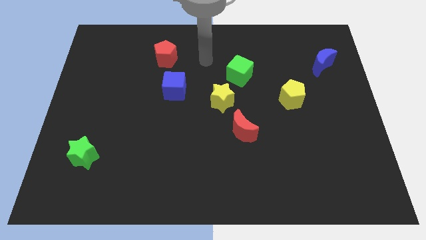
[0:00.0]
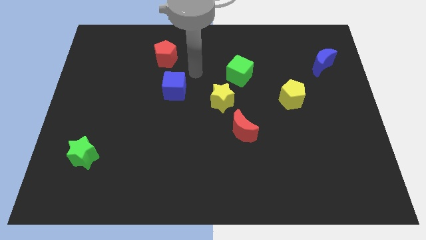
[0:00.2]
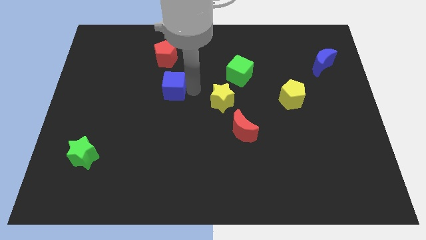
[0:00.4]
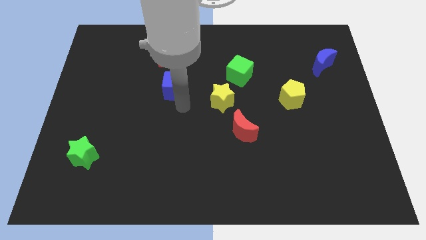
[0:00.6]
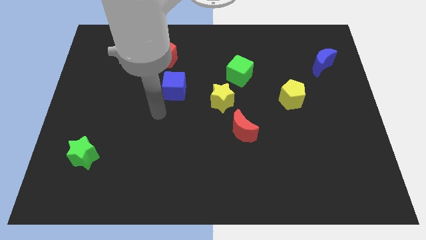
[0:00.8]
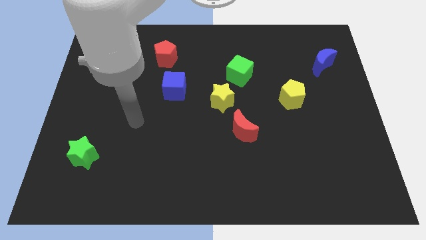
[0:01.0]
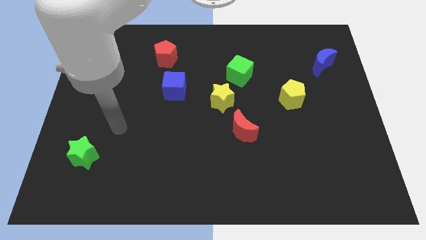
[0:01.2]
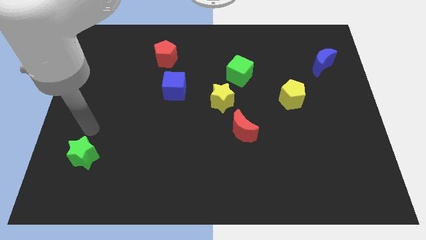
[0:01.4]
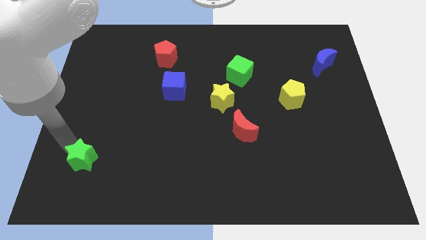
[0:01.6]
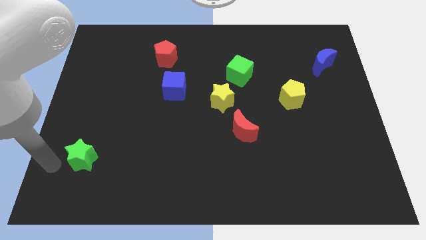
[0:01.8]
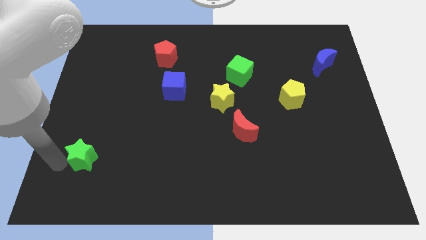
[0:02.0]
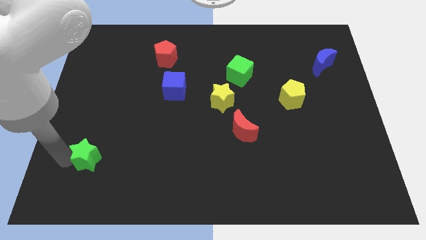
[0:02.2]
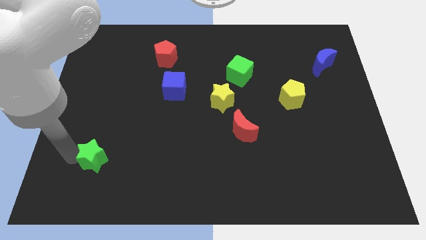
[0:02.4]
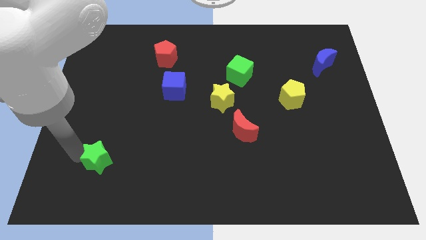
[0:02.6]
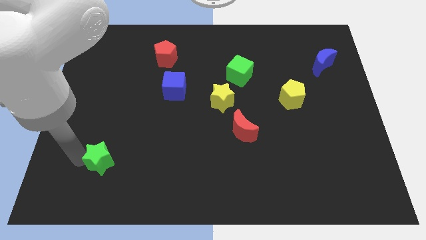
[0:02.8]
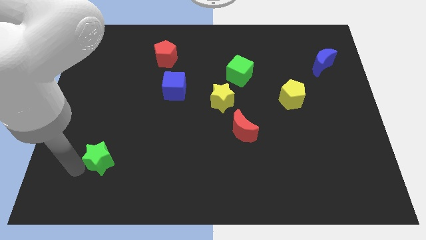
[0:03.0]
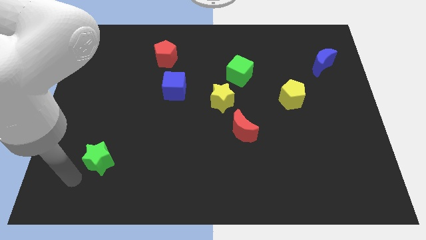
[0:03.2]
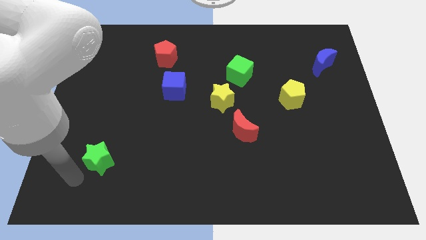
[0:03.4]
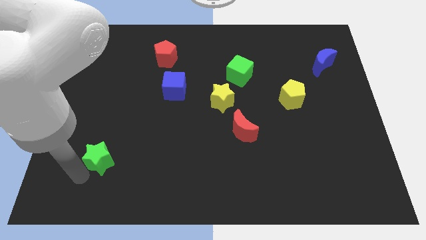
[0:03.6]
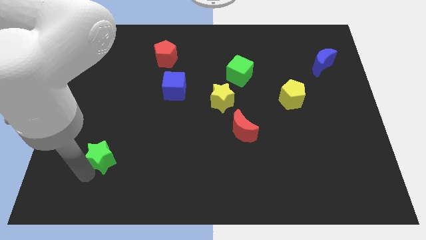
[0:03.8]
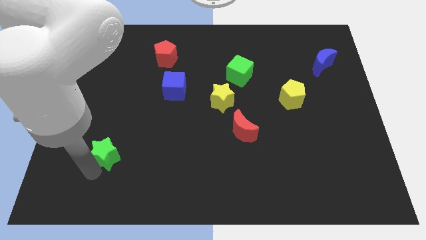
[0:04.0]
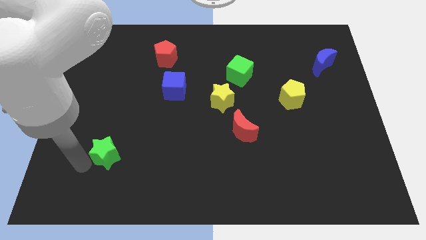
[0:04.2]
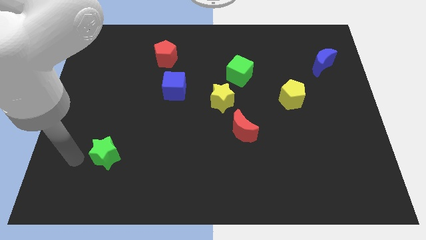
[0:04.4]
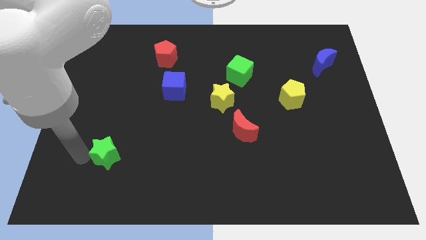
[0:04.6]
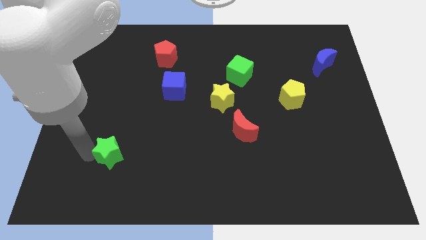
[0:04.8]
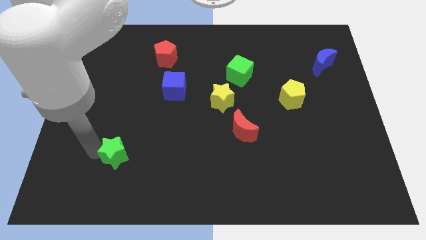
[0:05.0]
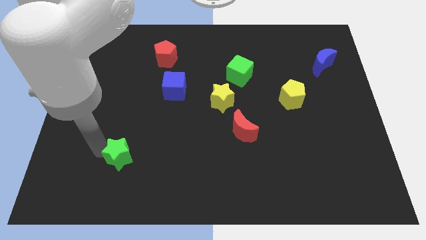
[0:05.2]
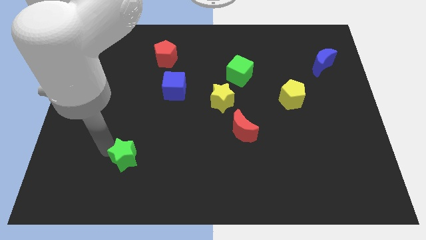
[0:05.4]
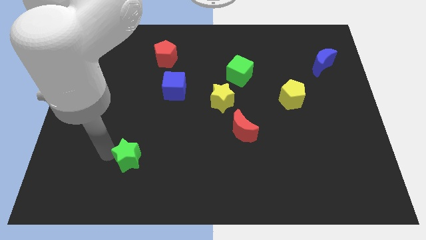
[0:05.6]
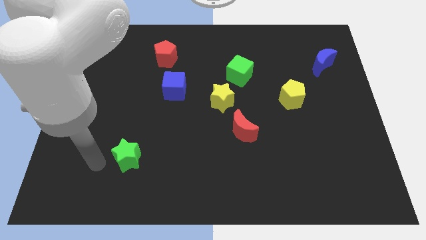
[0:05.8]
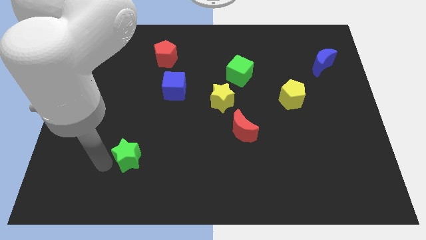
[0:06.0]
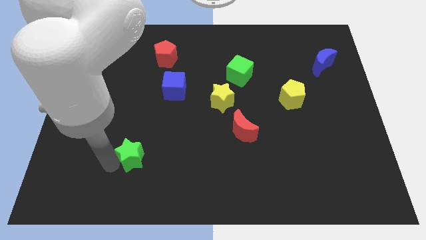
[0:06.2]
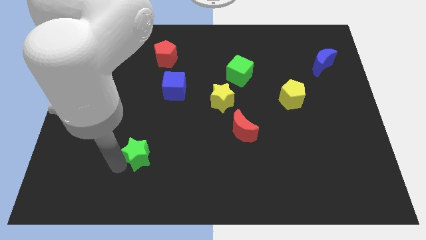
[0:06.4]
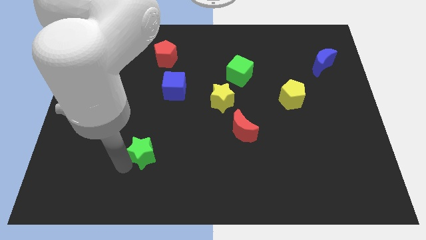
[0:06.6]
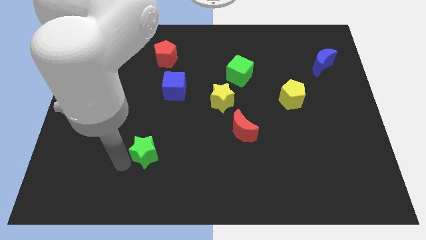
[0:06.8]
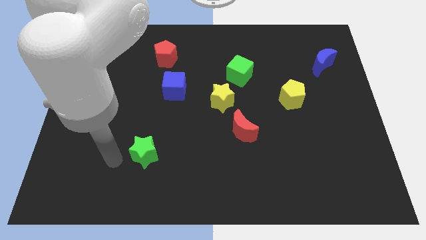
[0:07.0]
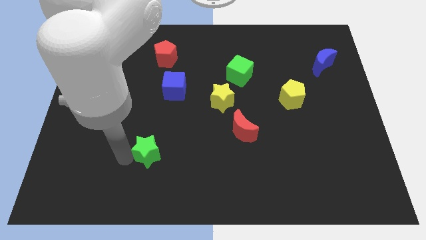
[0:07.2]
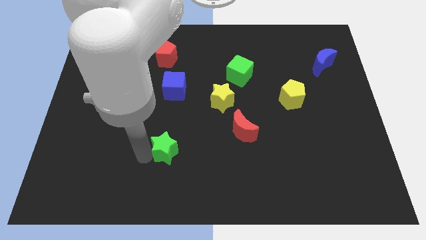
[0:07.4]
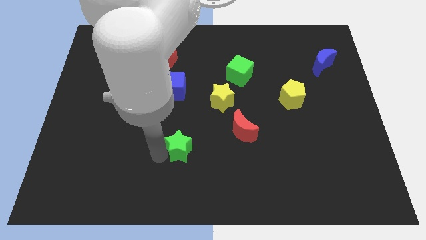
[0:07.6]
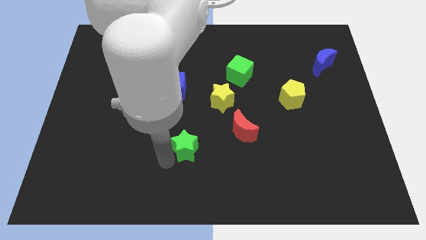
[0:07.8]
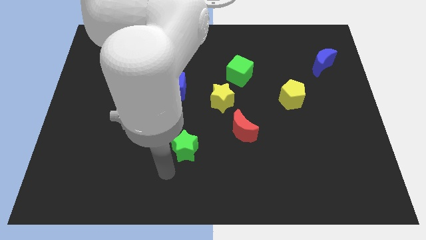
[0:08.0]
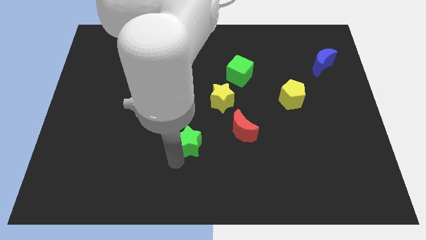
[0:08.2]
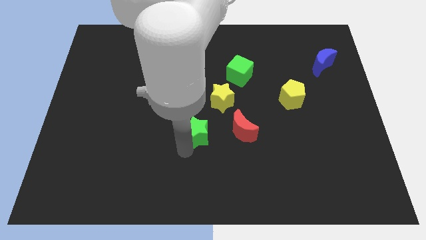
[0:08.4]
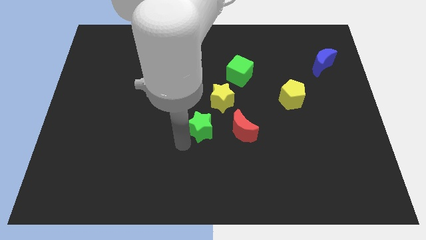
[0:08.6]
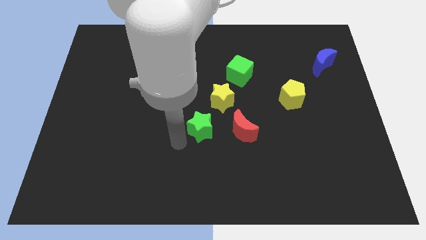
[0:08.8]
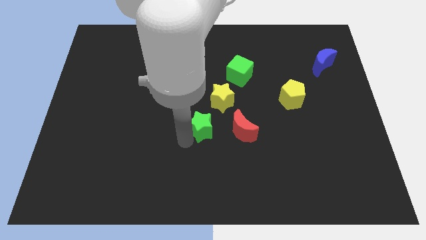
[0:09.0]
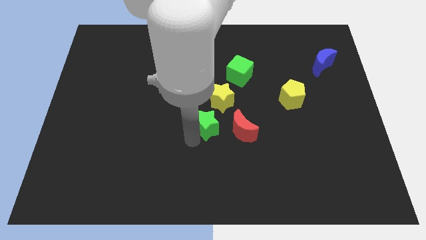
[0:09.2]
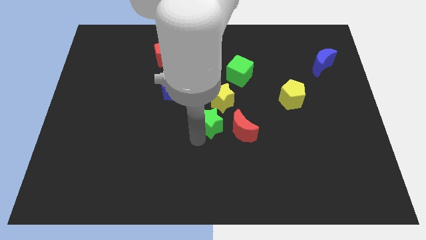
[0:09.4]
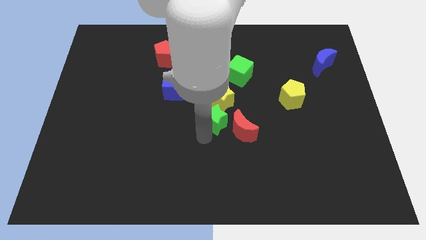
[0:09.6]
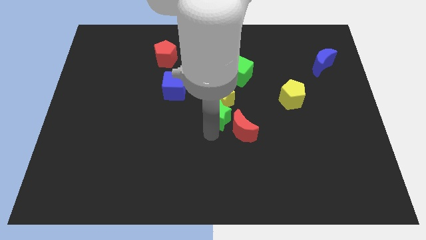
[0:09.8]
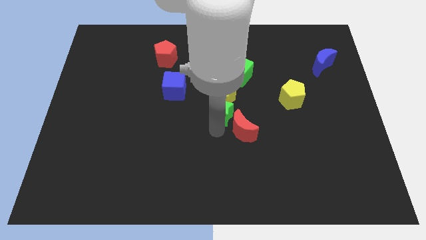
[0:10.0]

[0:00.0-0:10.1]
push the green star to the bottom side of the green cube

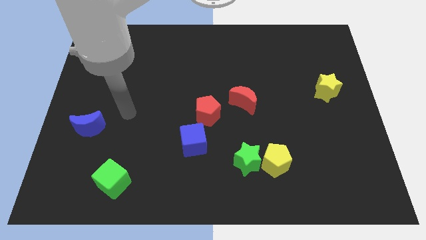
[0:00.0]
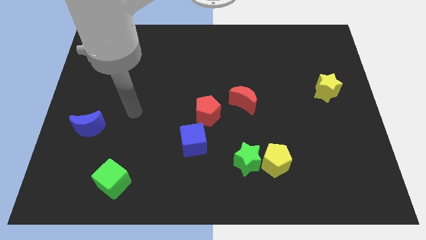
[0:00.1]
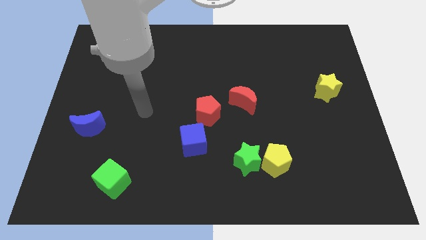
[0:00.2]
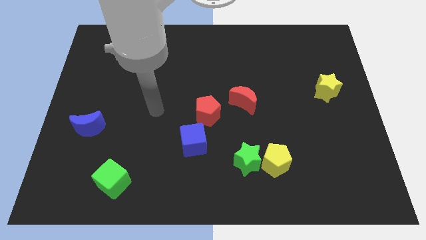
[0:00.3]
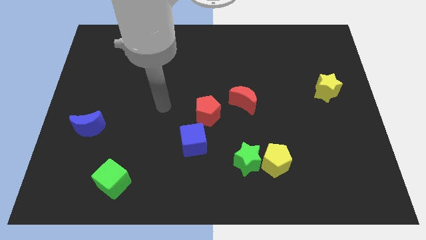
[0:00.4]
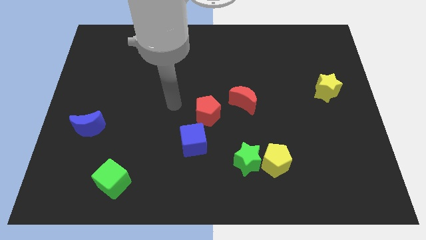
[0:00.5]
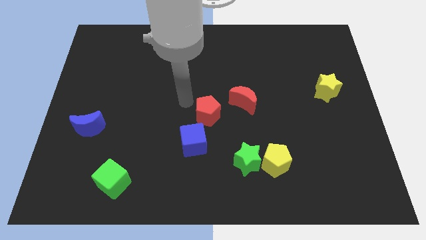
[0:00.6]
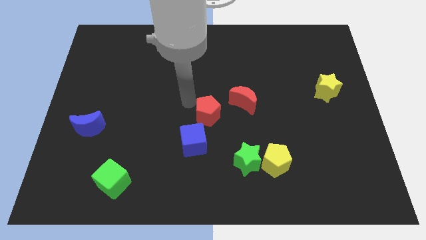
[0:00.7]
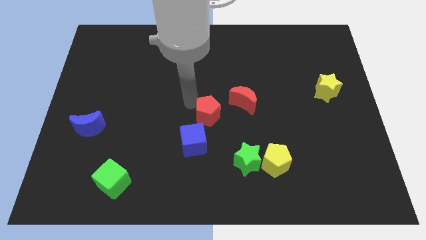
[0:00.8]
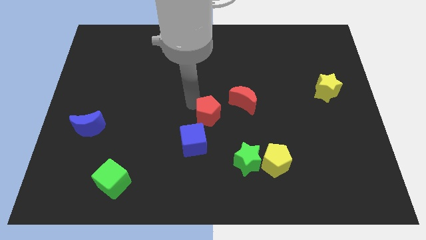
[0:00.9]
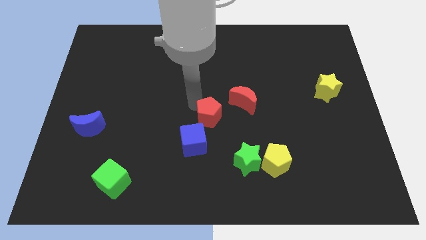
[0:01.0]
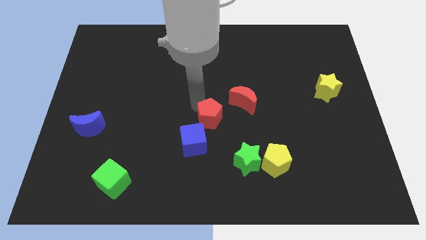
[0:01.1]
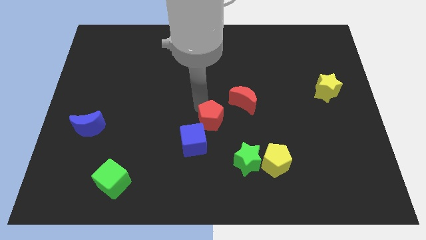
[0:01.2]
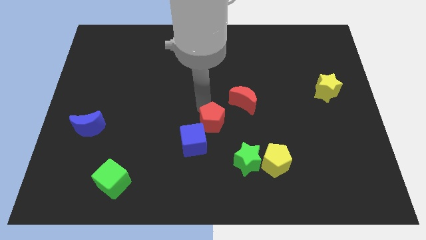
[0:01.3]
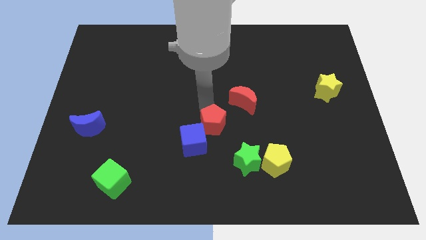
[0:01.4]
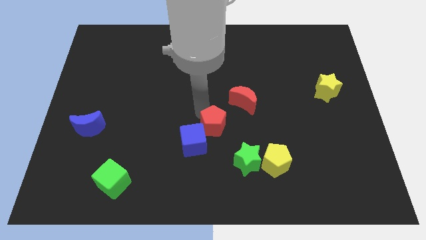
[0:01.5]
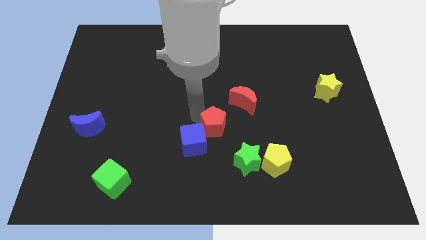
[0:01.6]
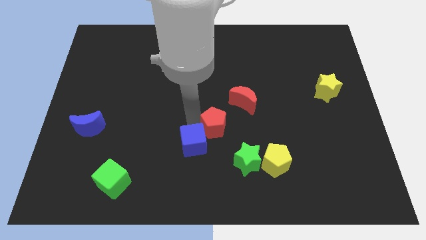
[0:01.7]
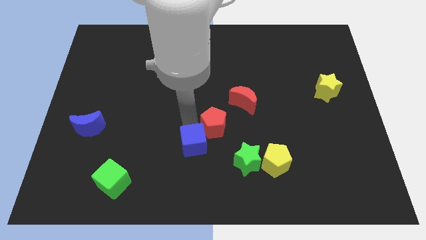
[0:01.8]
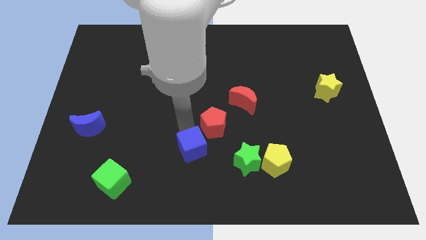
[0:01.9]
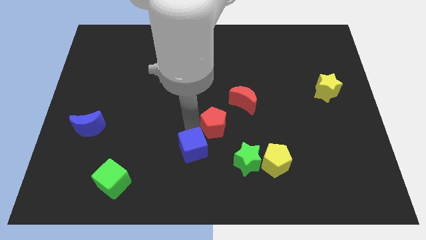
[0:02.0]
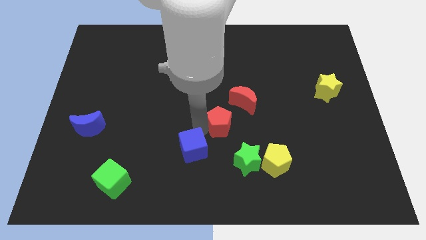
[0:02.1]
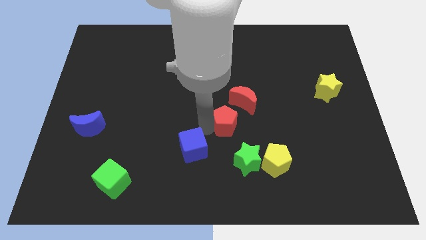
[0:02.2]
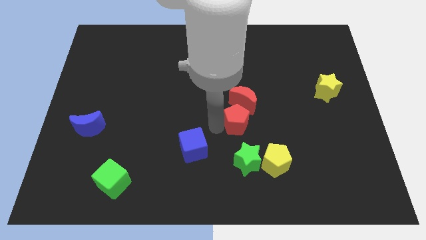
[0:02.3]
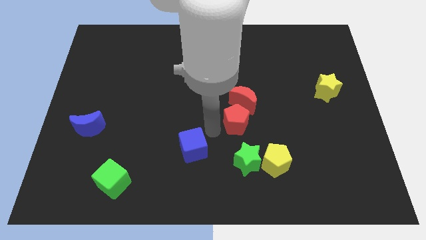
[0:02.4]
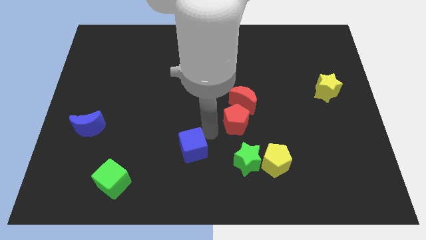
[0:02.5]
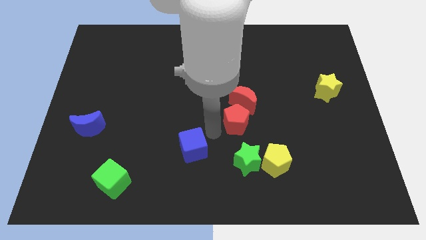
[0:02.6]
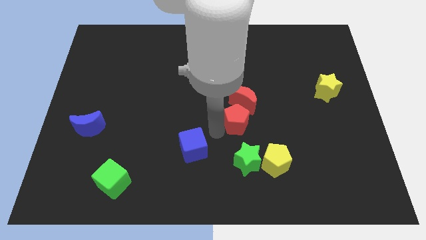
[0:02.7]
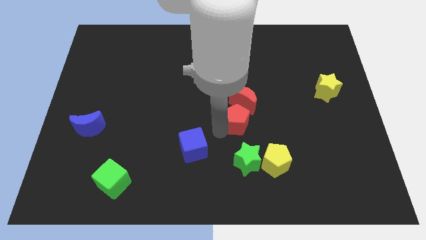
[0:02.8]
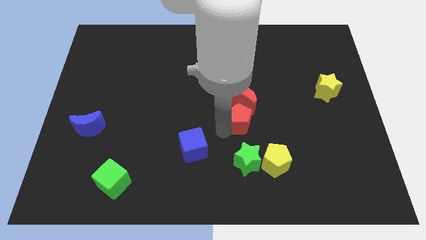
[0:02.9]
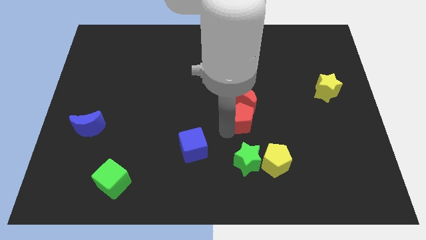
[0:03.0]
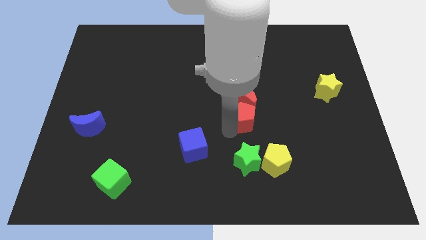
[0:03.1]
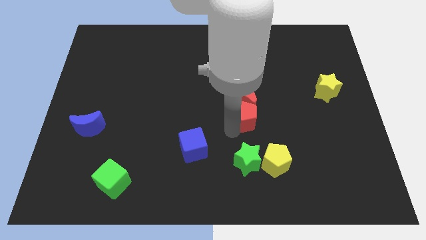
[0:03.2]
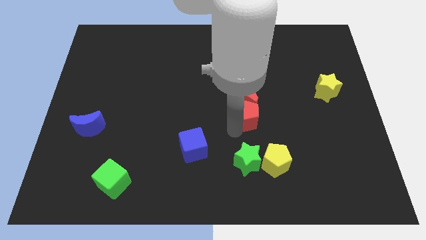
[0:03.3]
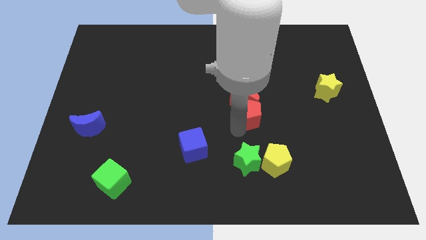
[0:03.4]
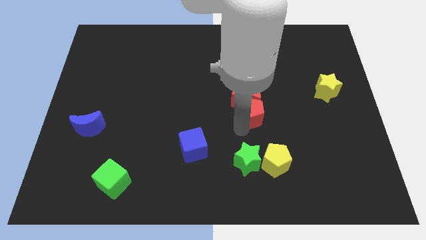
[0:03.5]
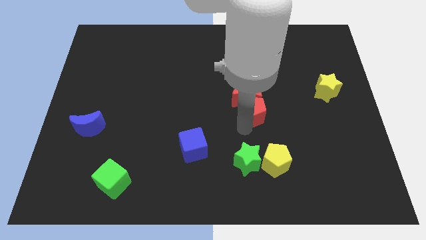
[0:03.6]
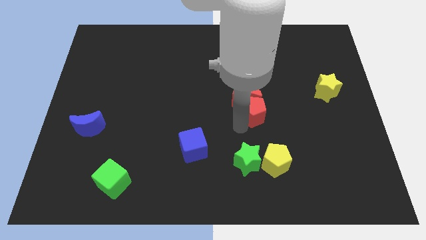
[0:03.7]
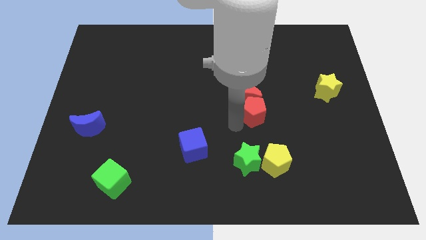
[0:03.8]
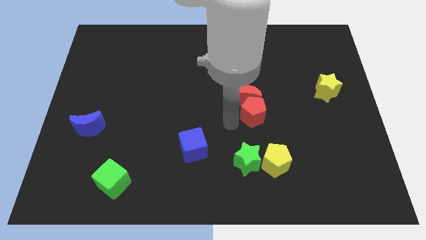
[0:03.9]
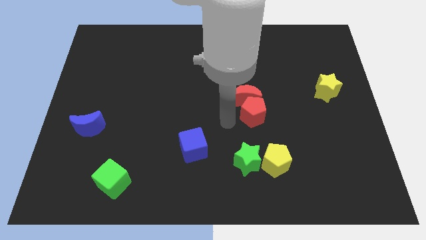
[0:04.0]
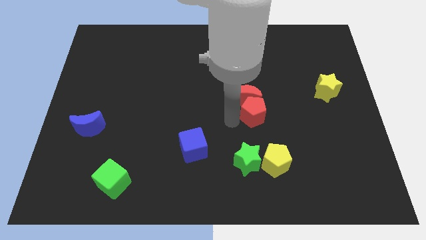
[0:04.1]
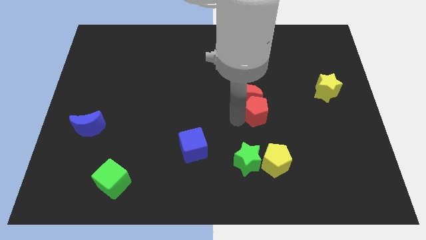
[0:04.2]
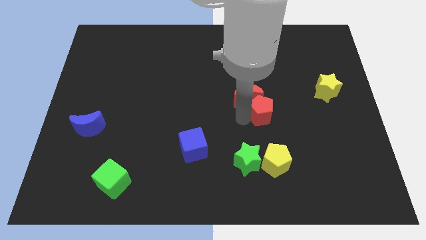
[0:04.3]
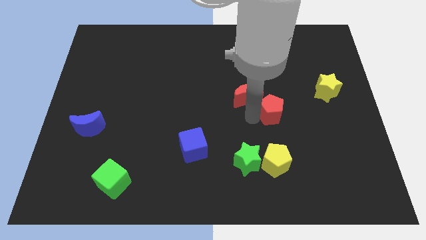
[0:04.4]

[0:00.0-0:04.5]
move the red pentagon to the right of the red moon
